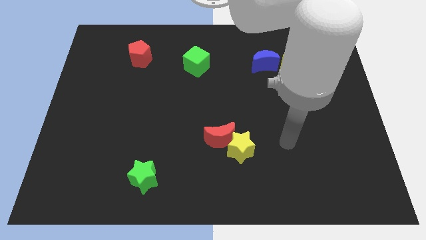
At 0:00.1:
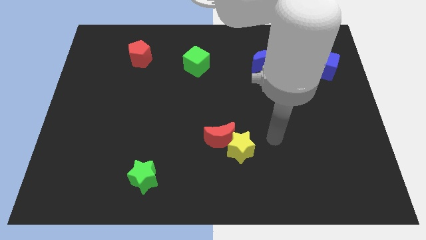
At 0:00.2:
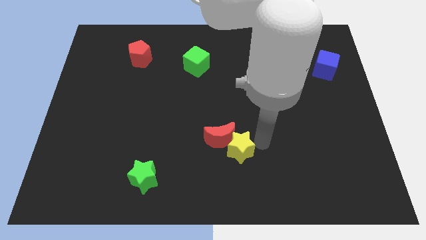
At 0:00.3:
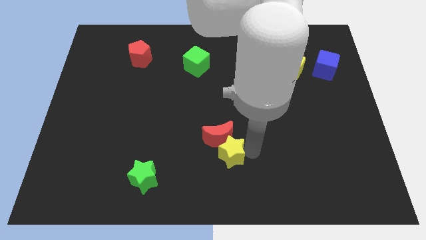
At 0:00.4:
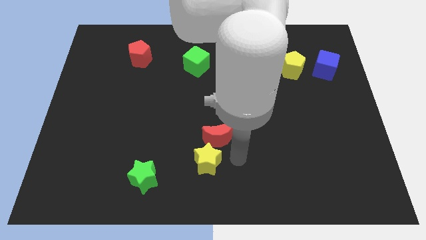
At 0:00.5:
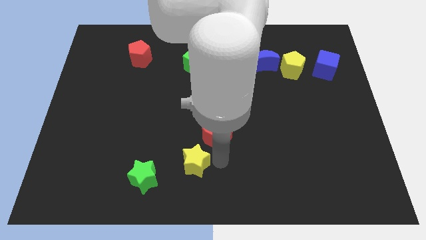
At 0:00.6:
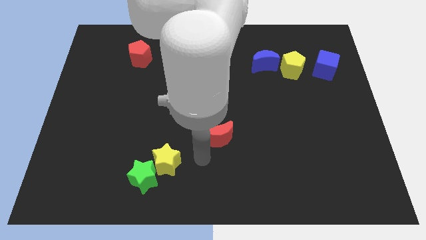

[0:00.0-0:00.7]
pull the red moon apart from the yellow star

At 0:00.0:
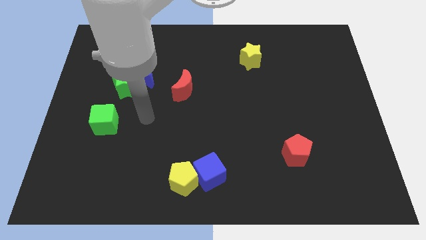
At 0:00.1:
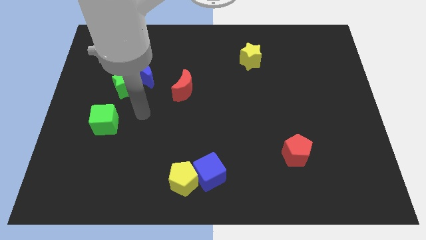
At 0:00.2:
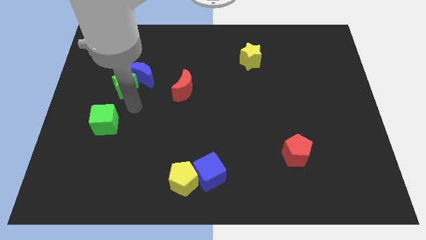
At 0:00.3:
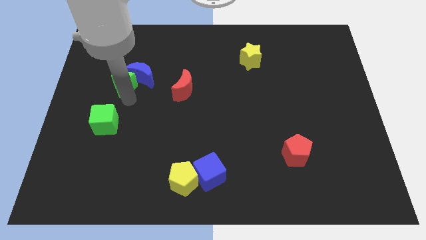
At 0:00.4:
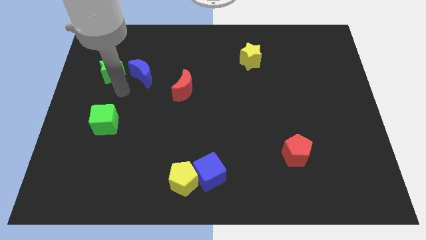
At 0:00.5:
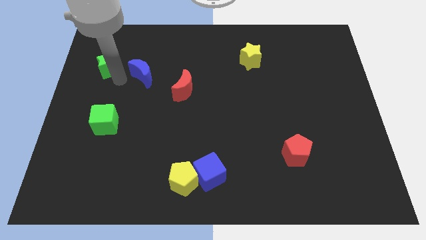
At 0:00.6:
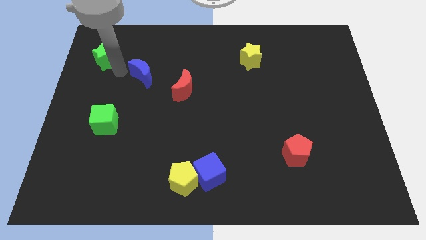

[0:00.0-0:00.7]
pull the blue moon apart from the green star

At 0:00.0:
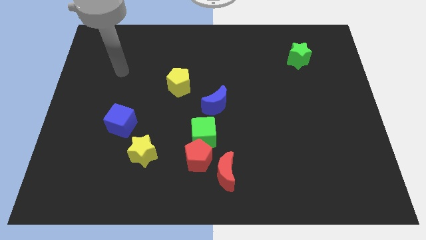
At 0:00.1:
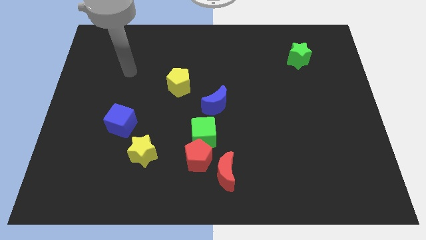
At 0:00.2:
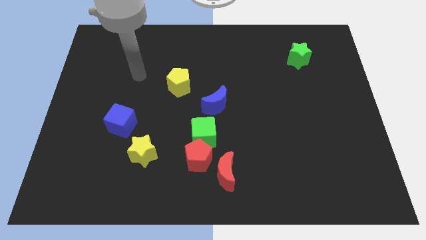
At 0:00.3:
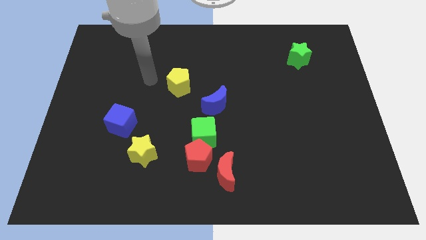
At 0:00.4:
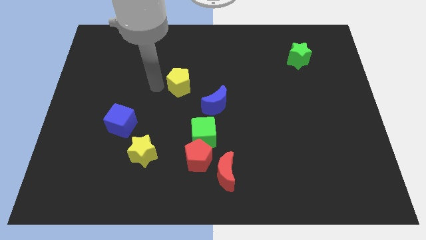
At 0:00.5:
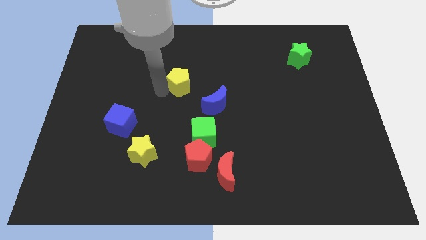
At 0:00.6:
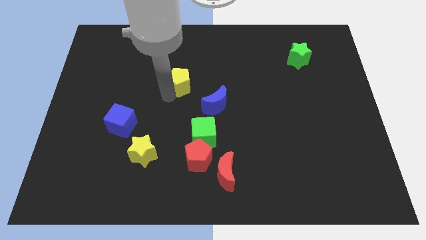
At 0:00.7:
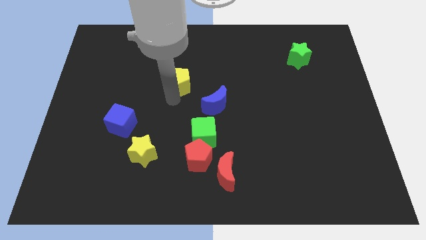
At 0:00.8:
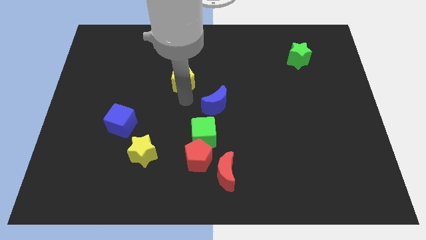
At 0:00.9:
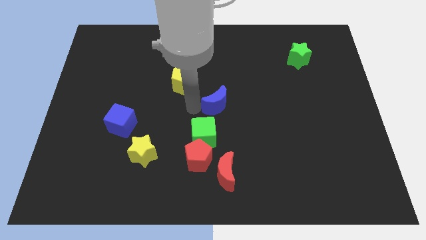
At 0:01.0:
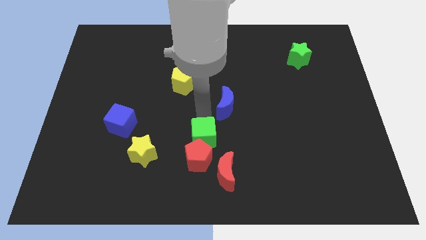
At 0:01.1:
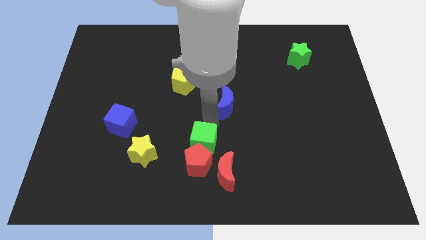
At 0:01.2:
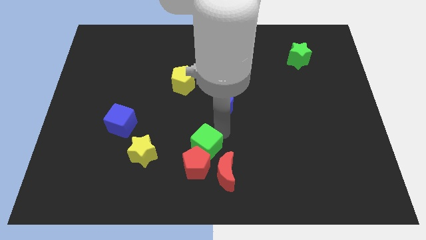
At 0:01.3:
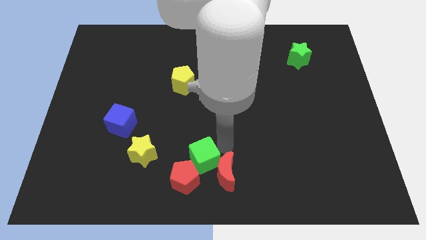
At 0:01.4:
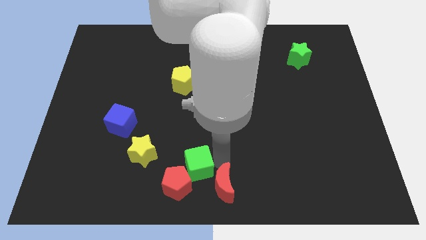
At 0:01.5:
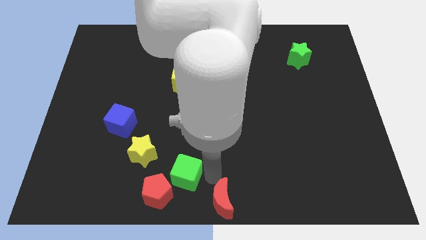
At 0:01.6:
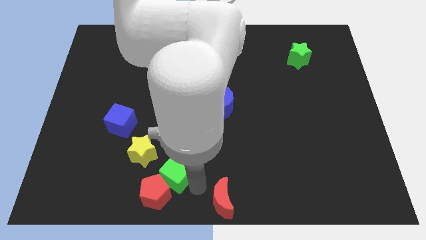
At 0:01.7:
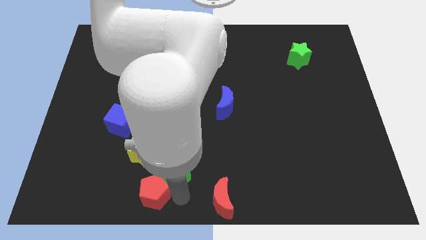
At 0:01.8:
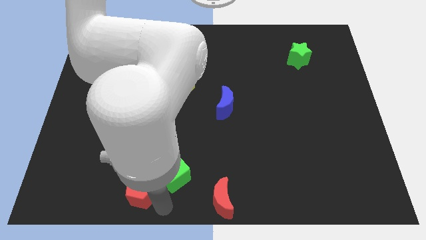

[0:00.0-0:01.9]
move the red pentagon away from the green cube and red moon

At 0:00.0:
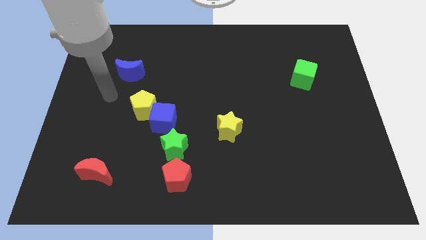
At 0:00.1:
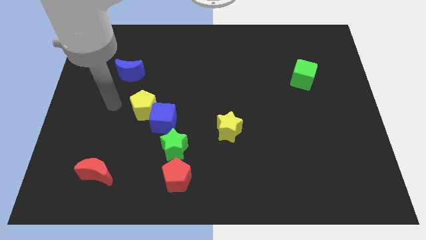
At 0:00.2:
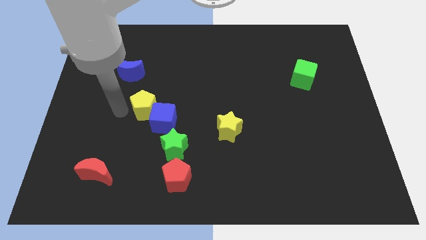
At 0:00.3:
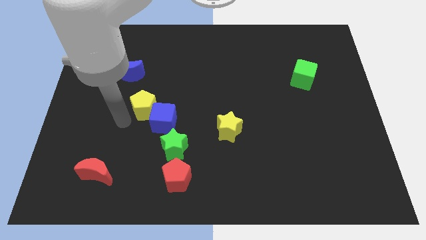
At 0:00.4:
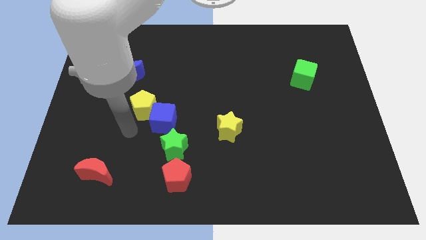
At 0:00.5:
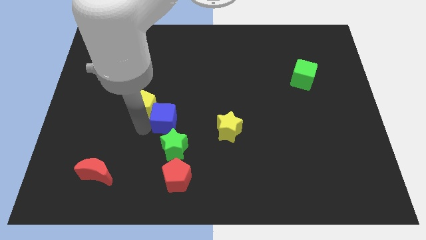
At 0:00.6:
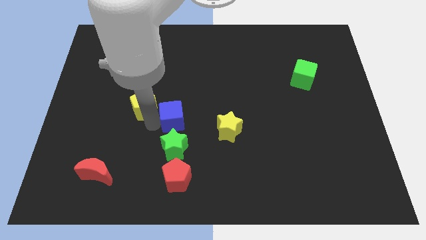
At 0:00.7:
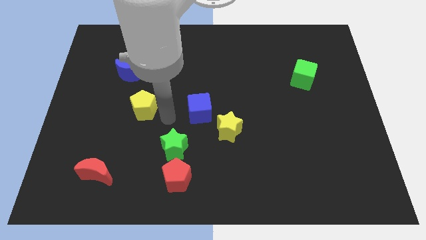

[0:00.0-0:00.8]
separate the yellow pentagon from the blue cube

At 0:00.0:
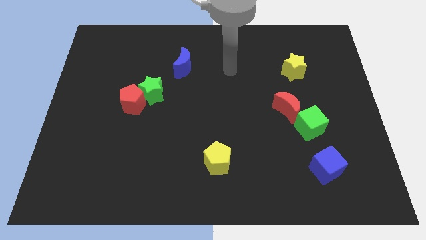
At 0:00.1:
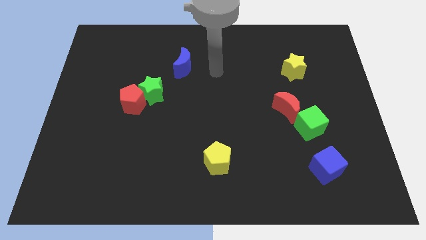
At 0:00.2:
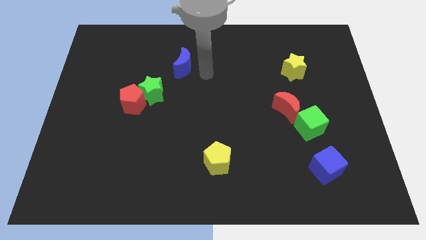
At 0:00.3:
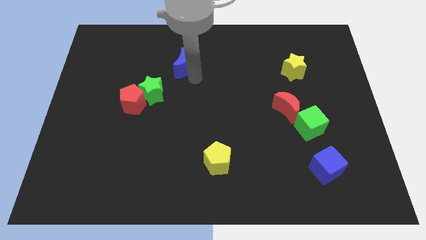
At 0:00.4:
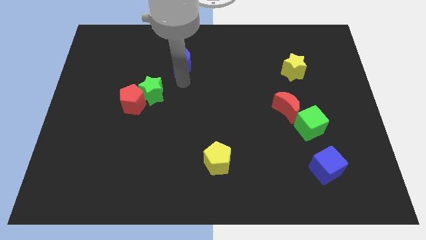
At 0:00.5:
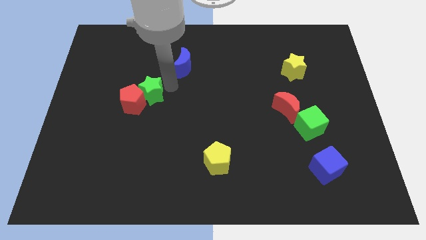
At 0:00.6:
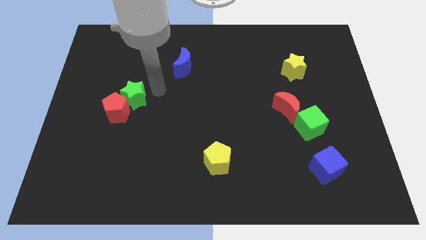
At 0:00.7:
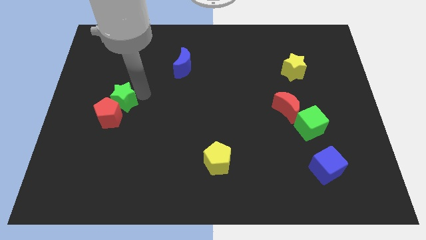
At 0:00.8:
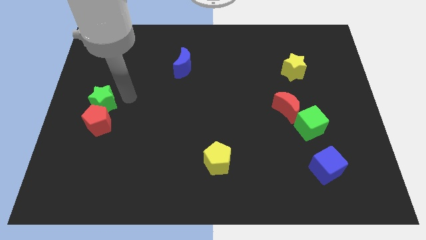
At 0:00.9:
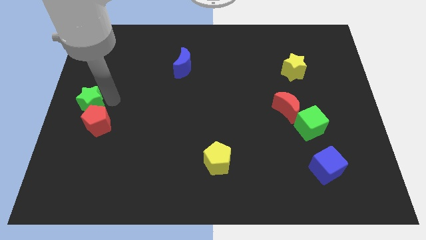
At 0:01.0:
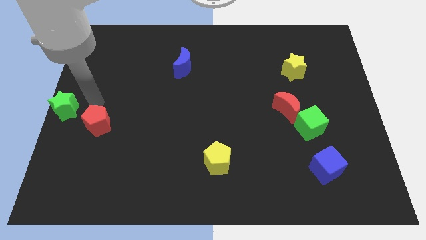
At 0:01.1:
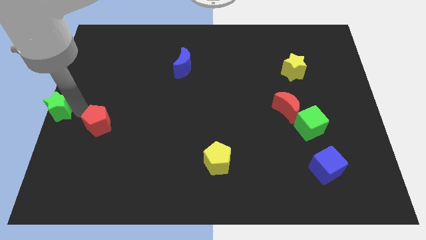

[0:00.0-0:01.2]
separate the red pentagon from the green star

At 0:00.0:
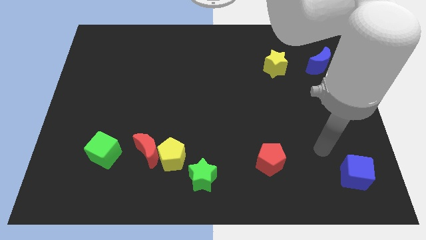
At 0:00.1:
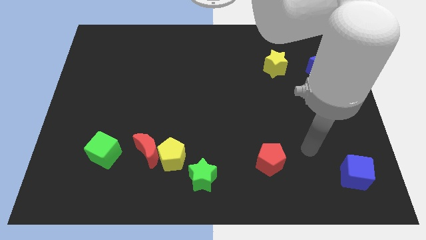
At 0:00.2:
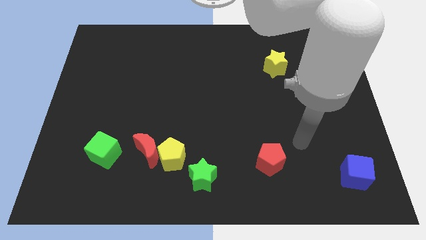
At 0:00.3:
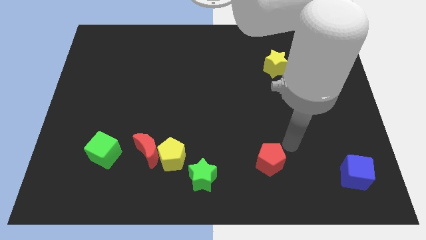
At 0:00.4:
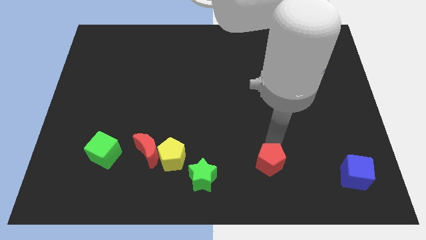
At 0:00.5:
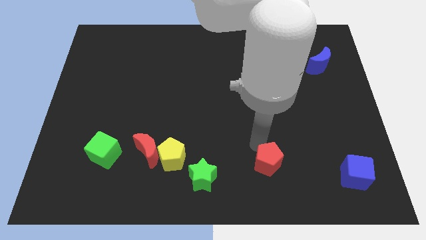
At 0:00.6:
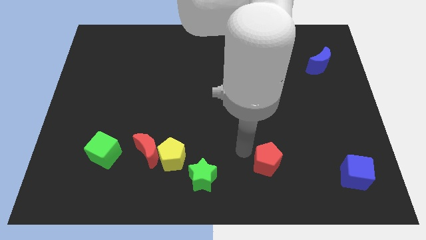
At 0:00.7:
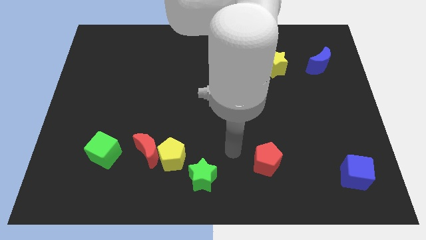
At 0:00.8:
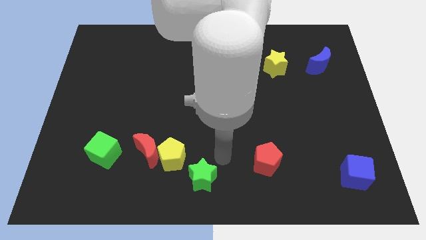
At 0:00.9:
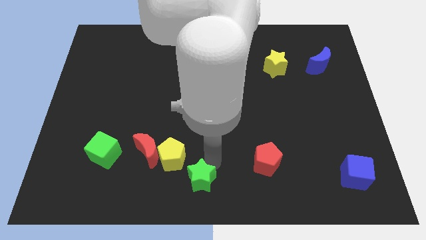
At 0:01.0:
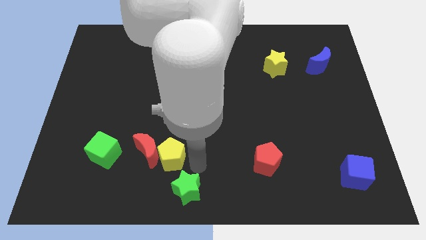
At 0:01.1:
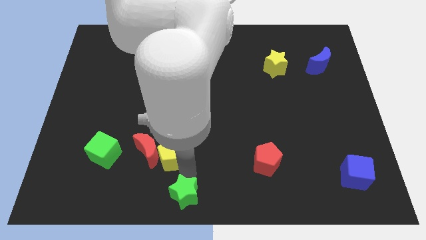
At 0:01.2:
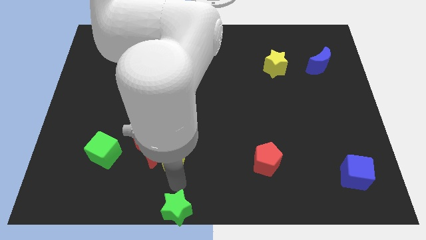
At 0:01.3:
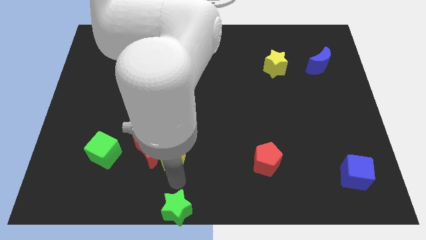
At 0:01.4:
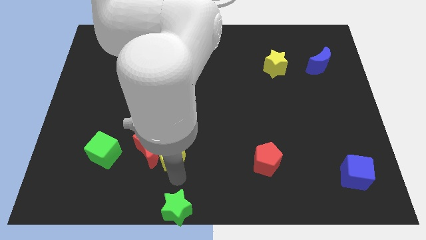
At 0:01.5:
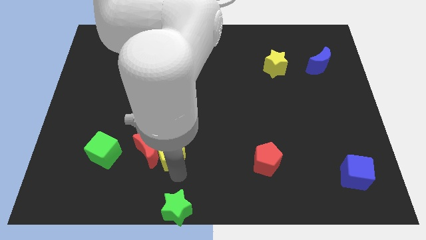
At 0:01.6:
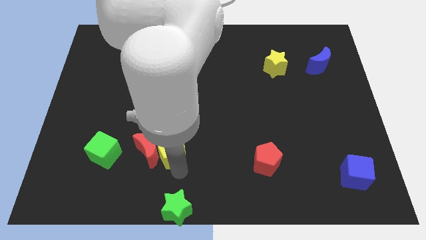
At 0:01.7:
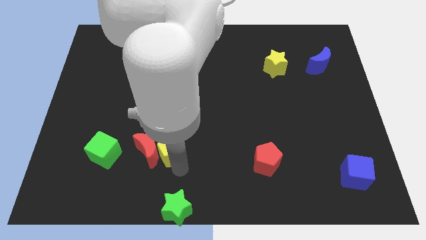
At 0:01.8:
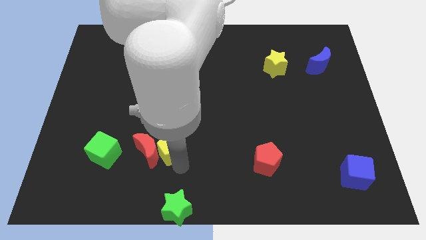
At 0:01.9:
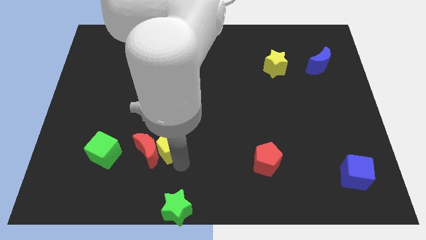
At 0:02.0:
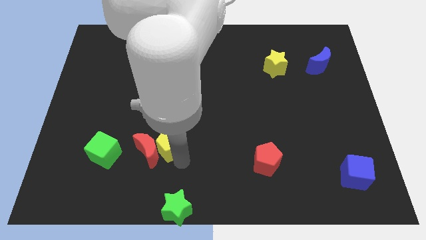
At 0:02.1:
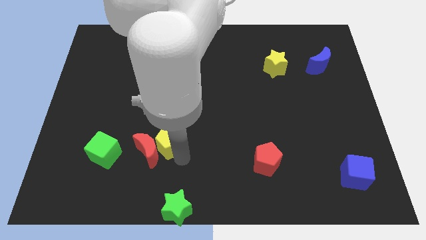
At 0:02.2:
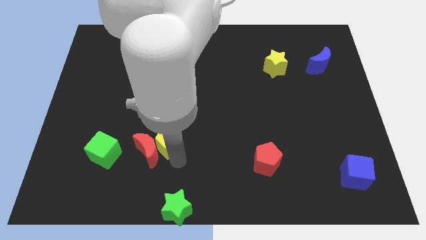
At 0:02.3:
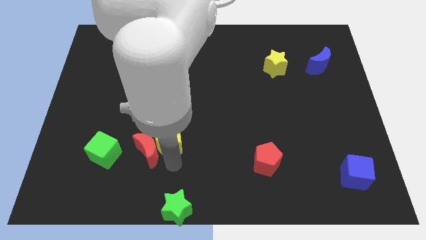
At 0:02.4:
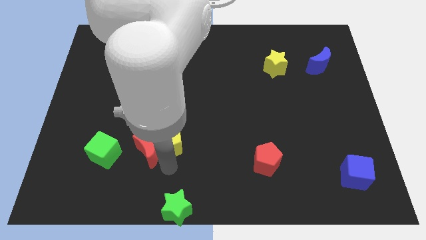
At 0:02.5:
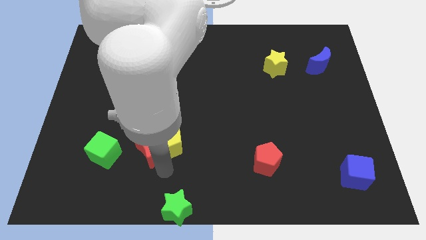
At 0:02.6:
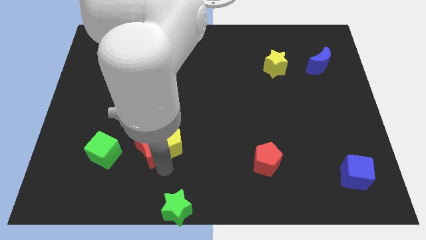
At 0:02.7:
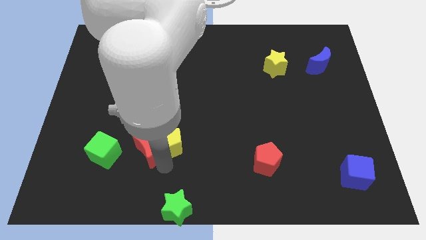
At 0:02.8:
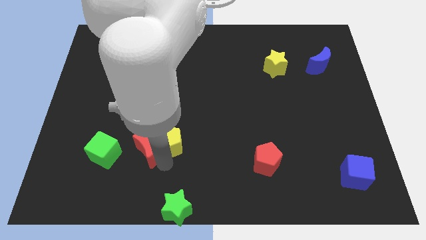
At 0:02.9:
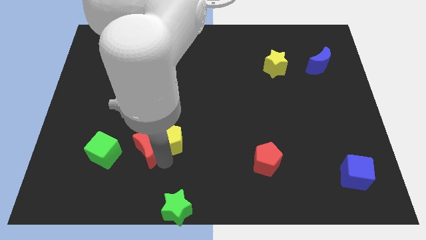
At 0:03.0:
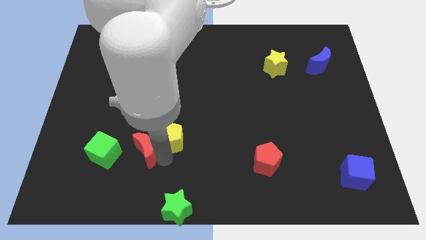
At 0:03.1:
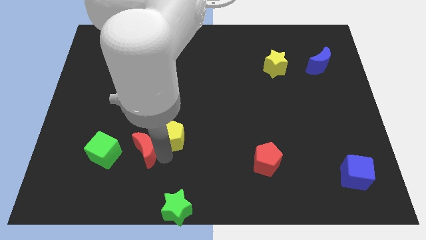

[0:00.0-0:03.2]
move the yellow pentagon away from the red moon and green star

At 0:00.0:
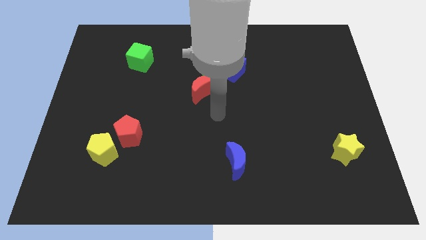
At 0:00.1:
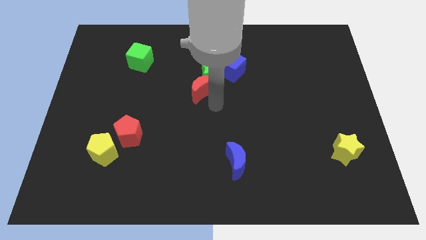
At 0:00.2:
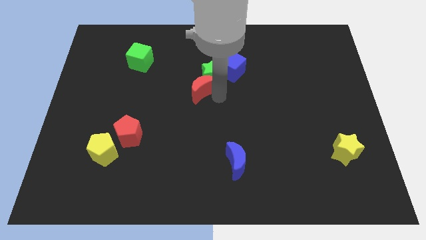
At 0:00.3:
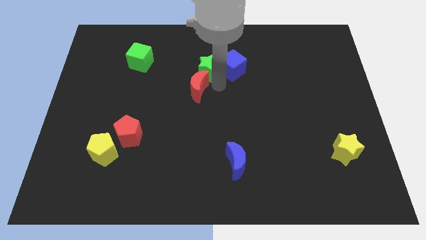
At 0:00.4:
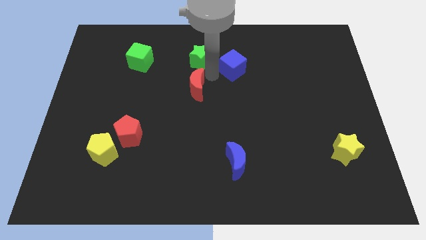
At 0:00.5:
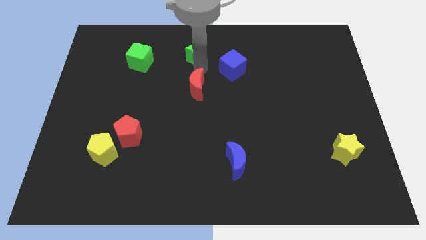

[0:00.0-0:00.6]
pull the red moon apart from the green star

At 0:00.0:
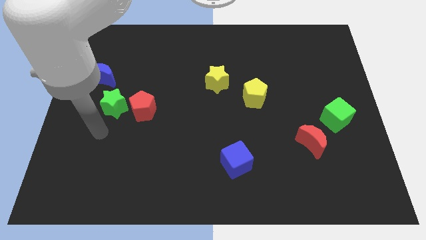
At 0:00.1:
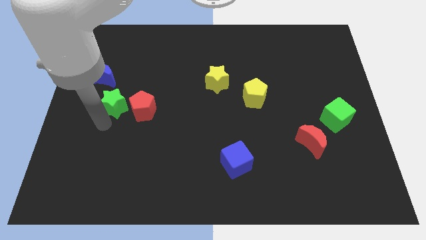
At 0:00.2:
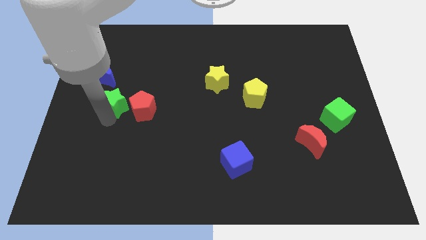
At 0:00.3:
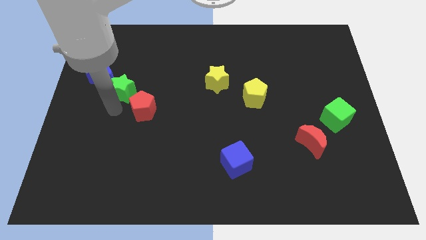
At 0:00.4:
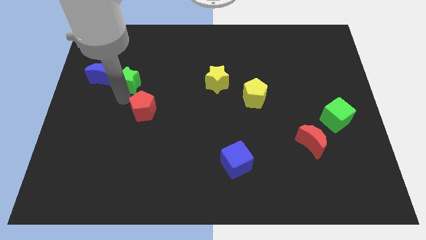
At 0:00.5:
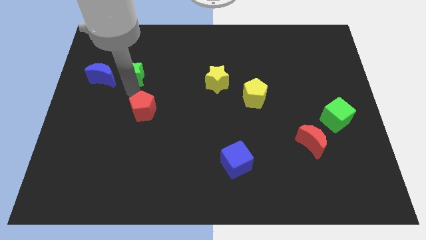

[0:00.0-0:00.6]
move the red pentagon away from the green star
